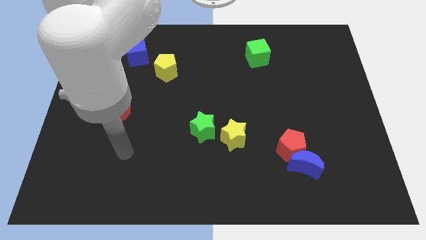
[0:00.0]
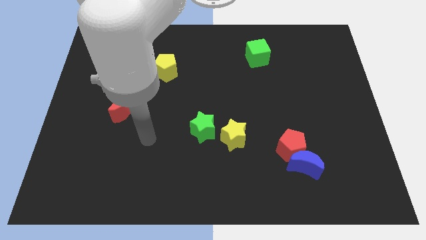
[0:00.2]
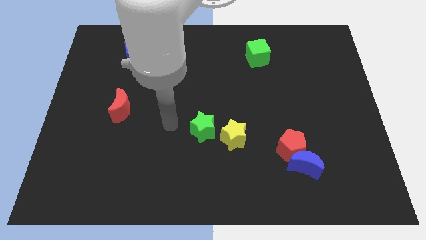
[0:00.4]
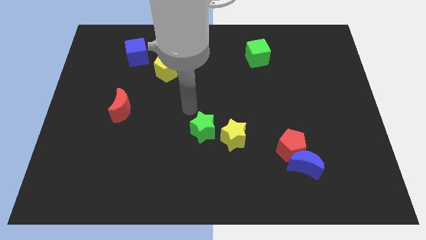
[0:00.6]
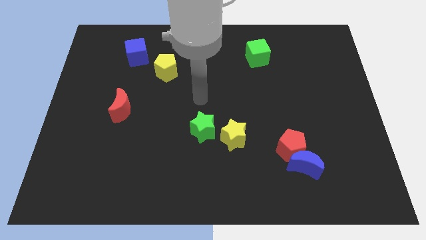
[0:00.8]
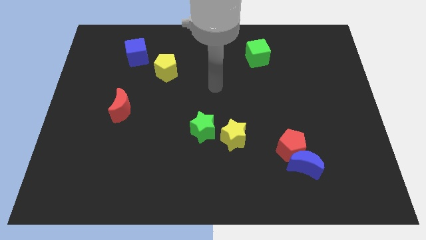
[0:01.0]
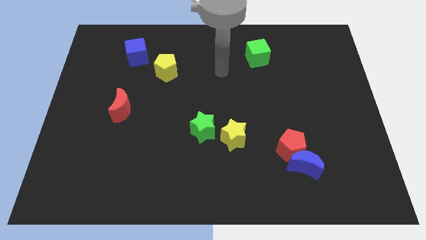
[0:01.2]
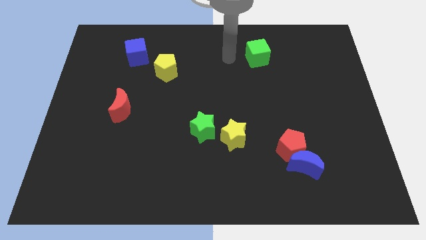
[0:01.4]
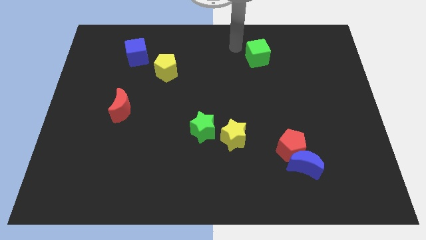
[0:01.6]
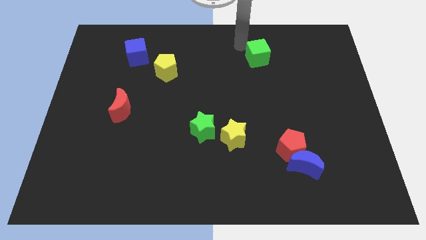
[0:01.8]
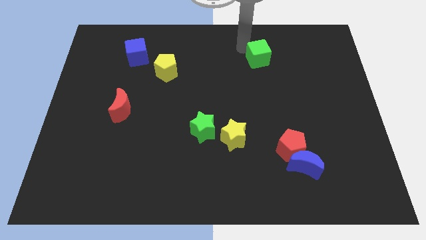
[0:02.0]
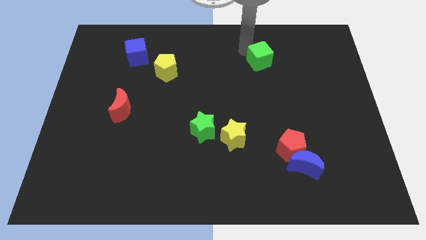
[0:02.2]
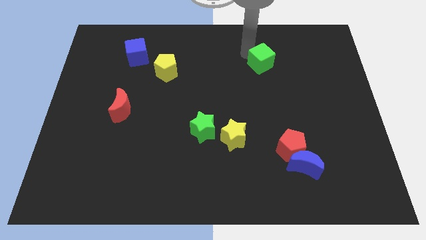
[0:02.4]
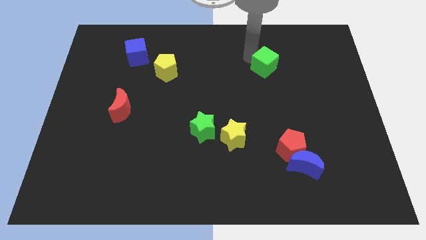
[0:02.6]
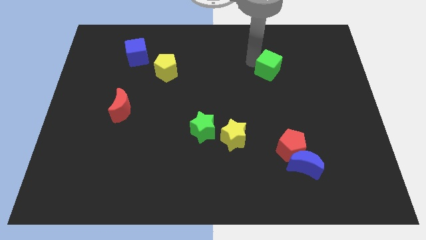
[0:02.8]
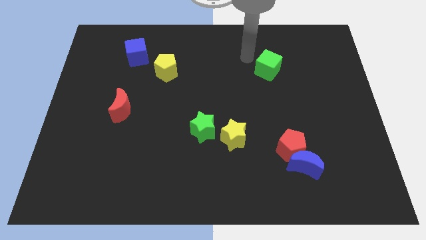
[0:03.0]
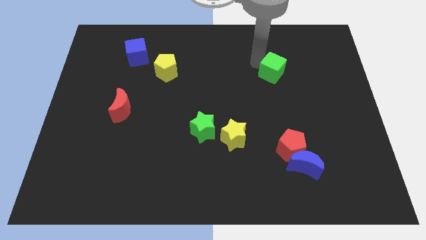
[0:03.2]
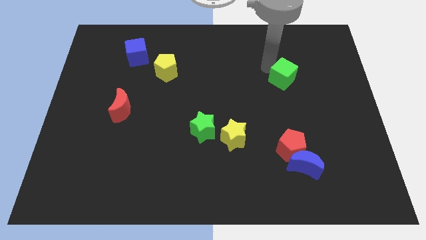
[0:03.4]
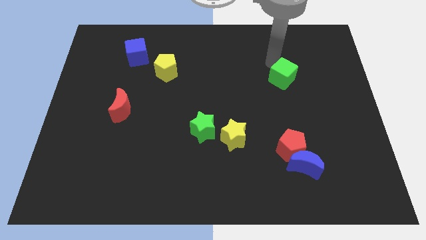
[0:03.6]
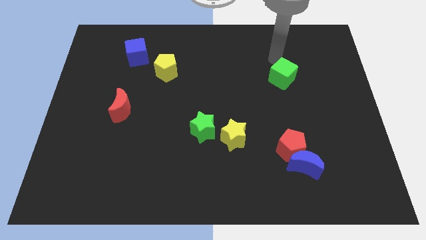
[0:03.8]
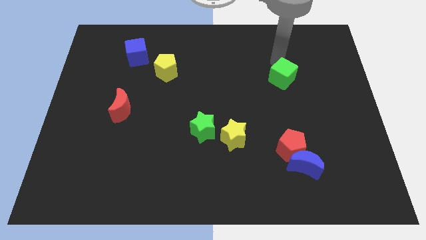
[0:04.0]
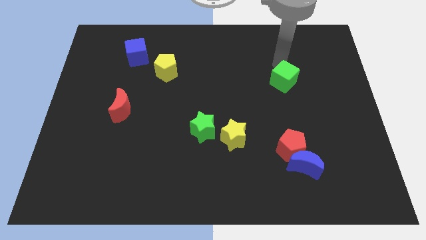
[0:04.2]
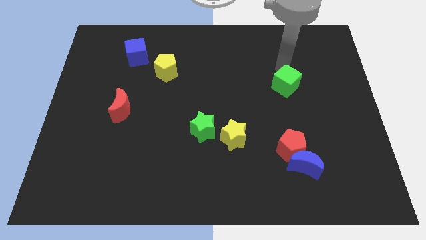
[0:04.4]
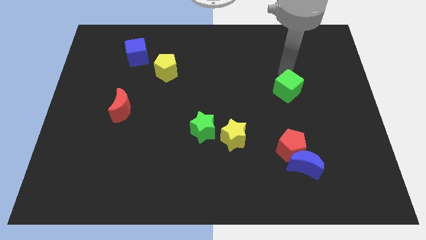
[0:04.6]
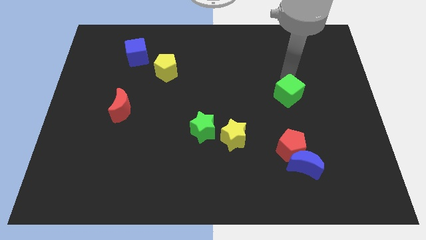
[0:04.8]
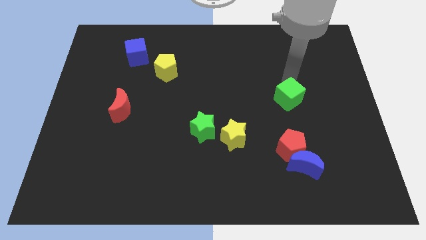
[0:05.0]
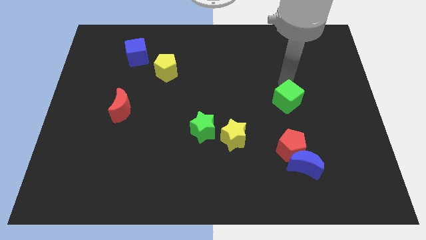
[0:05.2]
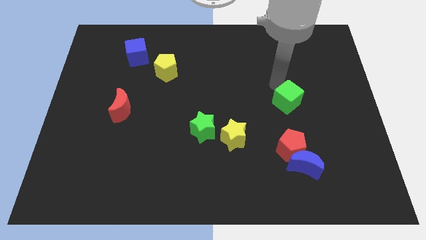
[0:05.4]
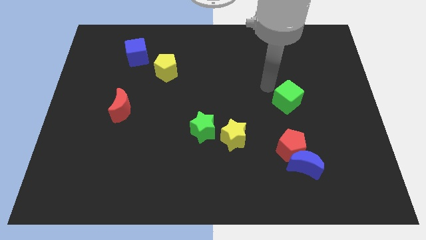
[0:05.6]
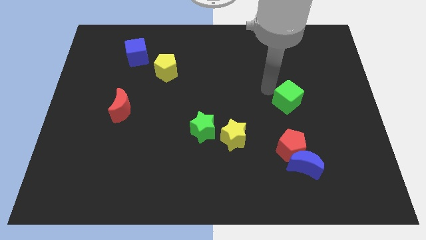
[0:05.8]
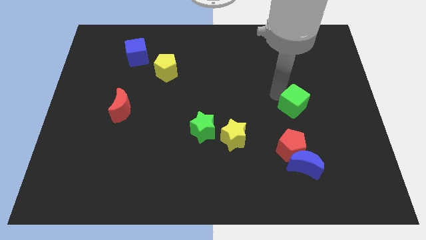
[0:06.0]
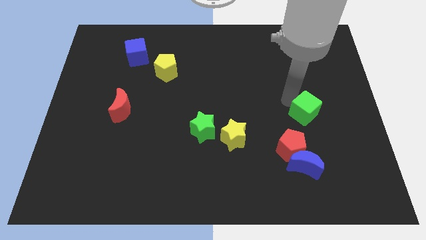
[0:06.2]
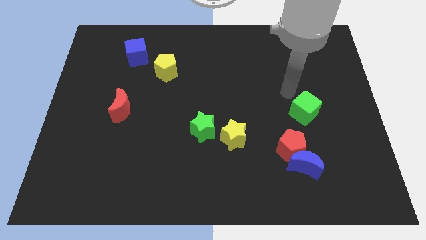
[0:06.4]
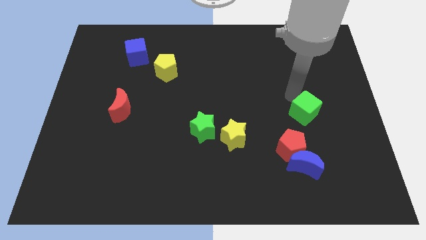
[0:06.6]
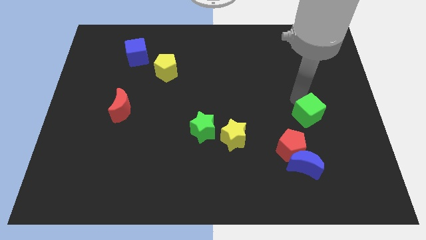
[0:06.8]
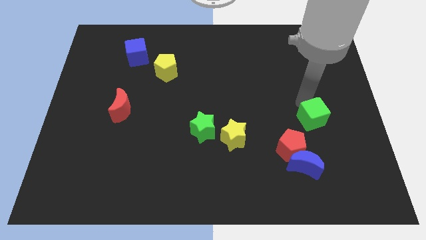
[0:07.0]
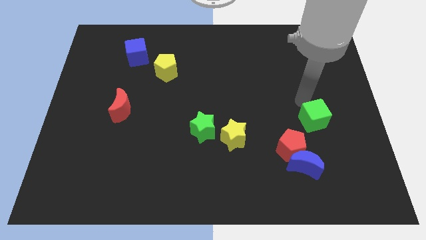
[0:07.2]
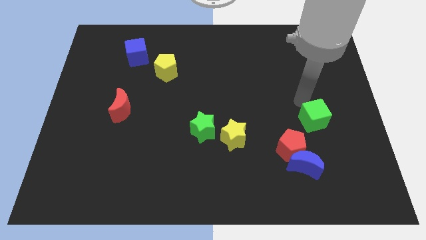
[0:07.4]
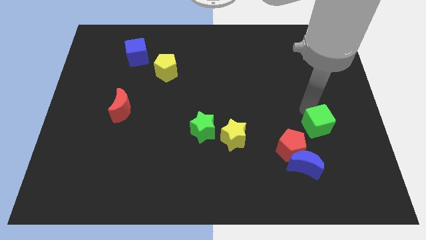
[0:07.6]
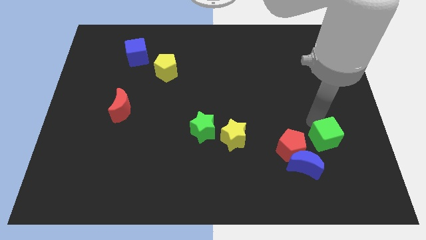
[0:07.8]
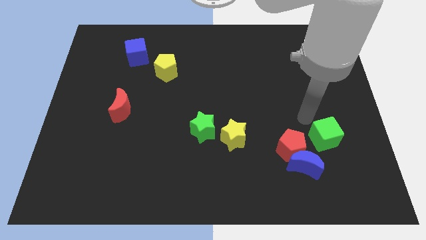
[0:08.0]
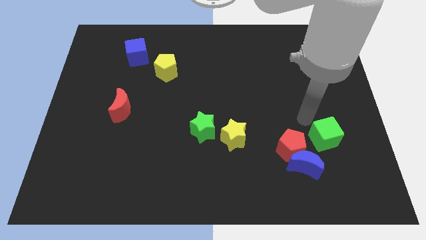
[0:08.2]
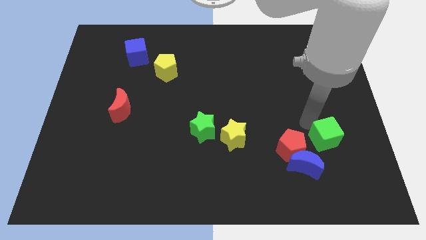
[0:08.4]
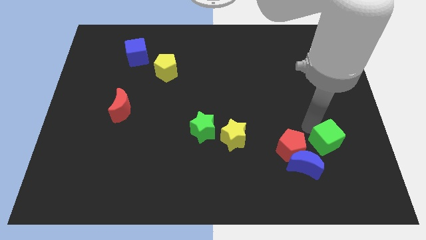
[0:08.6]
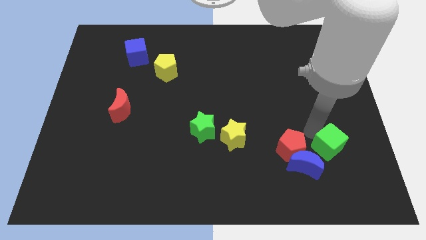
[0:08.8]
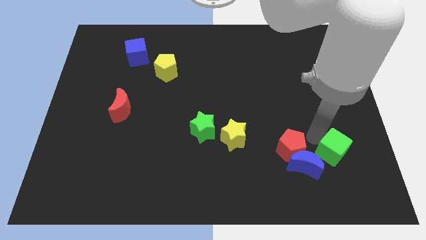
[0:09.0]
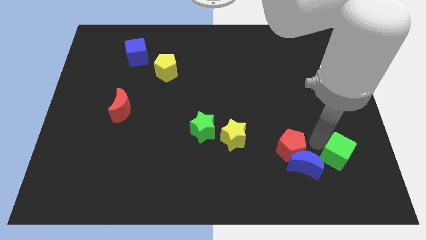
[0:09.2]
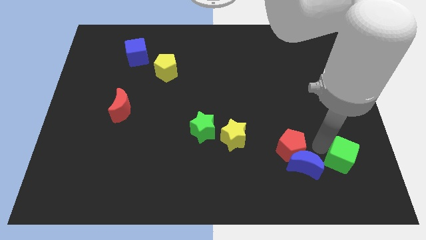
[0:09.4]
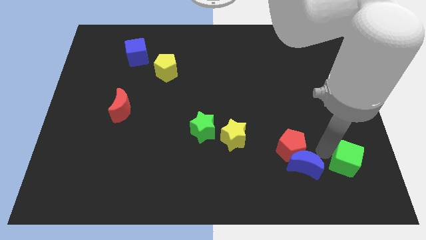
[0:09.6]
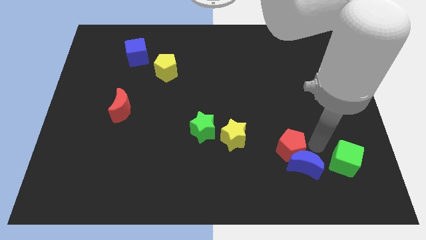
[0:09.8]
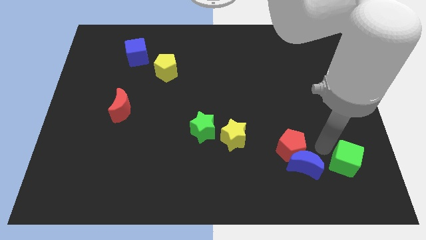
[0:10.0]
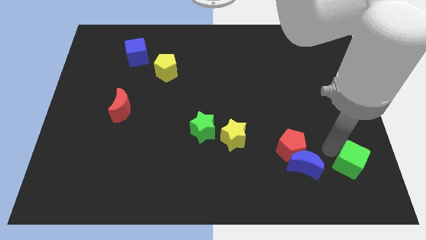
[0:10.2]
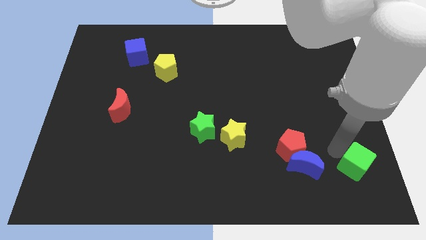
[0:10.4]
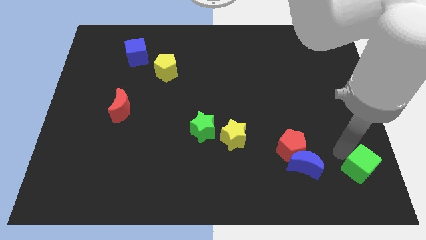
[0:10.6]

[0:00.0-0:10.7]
move the green cube to the bottom right corner

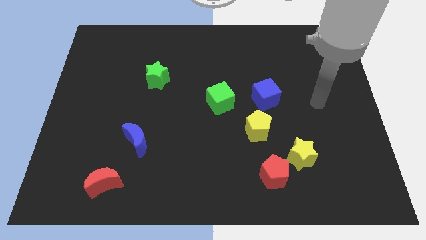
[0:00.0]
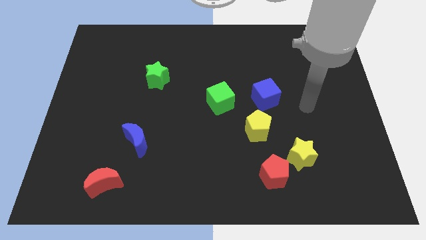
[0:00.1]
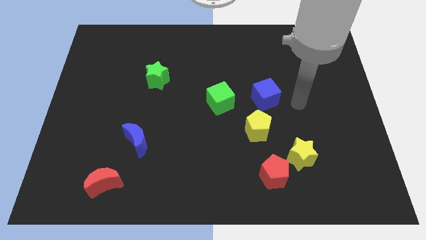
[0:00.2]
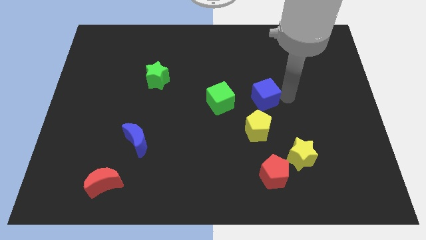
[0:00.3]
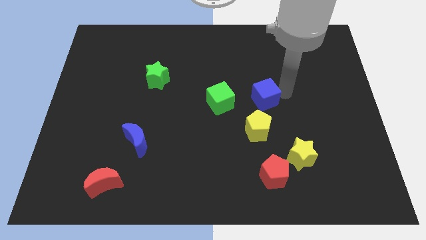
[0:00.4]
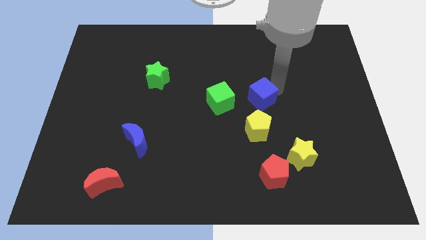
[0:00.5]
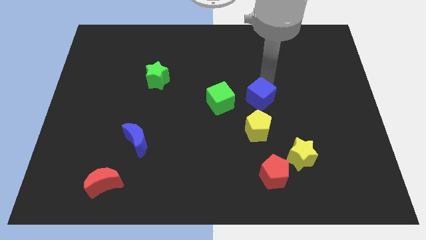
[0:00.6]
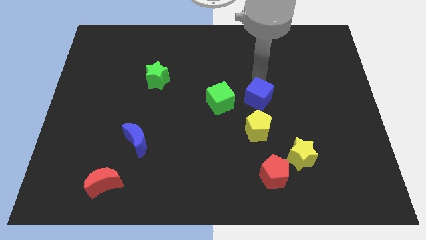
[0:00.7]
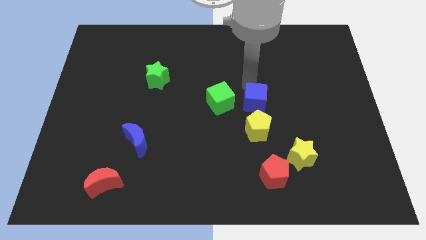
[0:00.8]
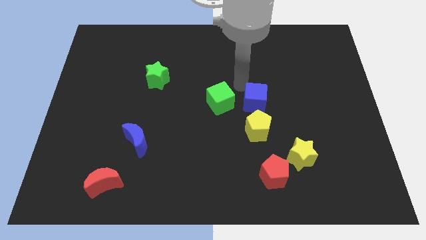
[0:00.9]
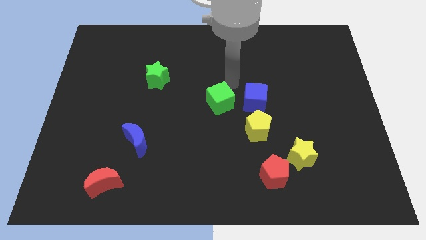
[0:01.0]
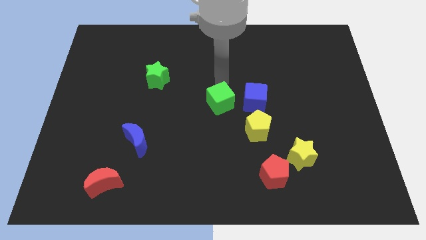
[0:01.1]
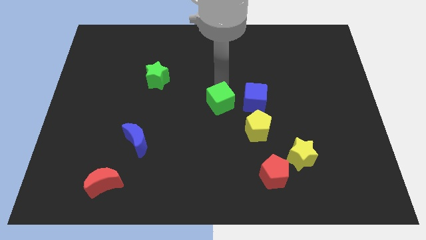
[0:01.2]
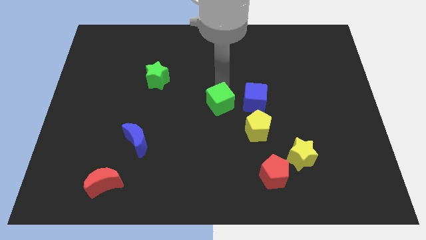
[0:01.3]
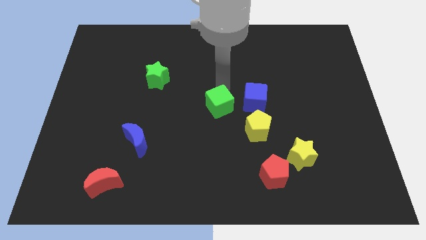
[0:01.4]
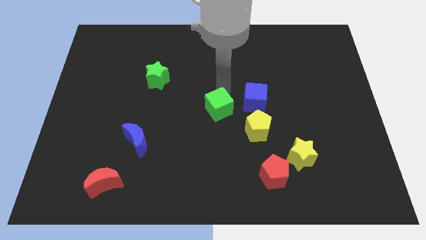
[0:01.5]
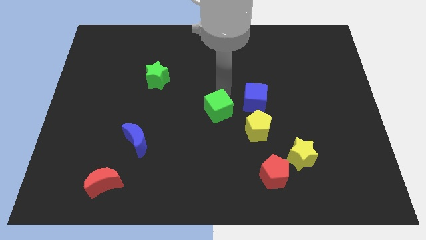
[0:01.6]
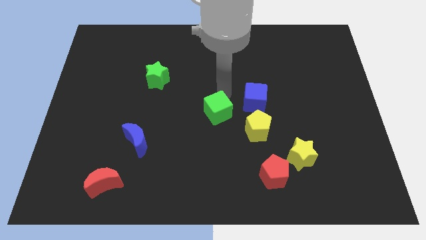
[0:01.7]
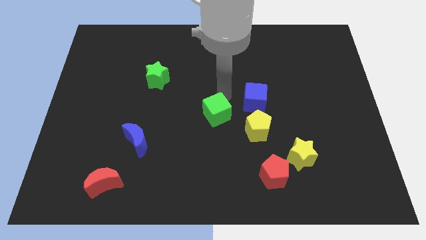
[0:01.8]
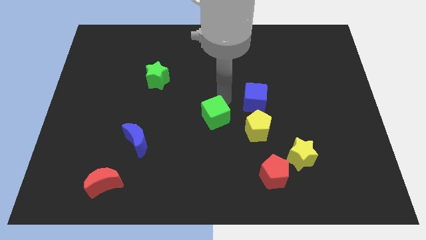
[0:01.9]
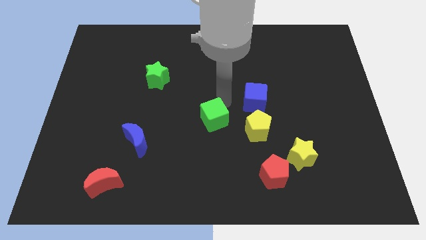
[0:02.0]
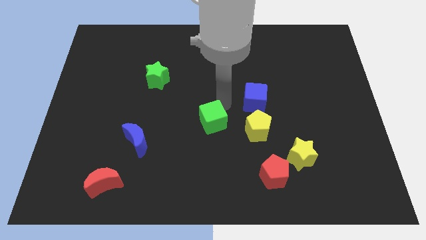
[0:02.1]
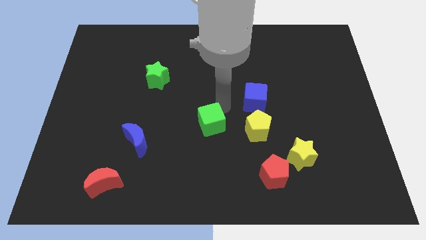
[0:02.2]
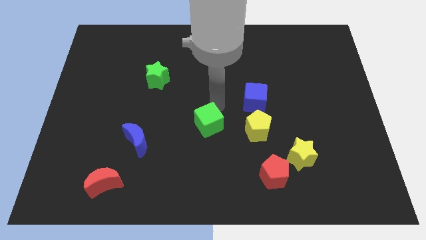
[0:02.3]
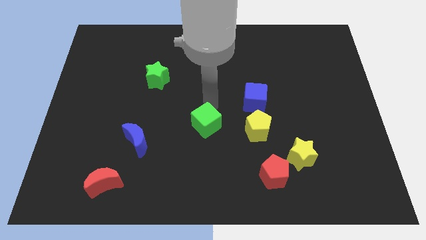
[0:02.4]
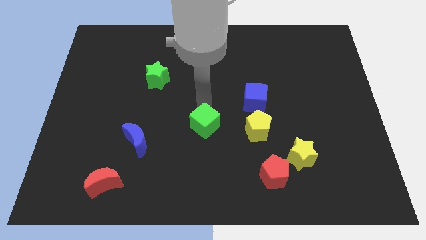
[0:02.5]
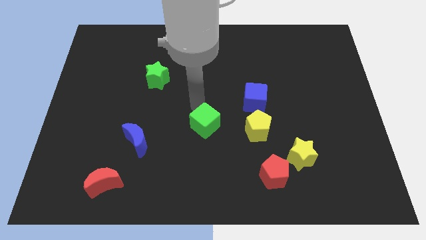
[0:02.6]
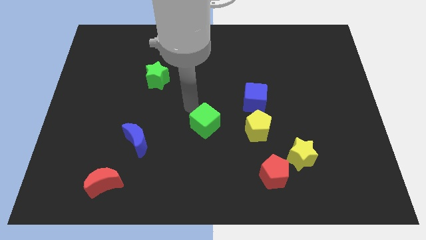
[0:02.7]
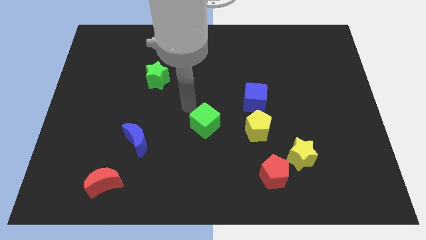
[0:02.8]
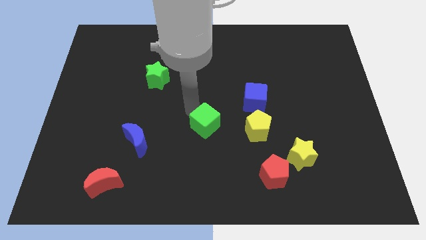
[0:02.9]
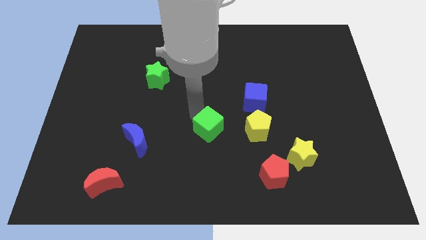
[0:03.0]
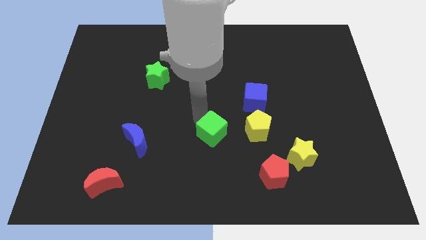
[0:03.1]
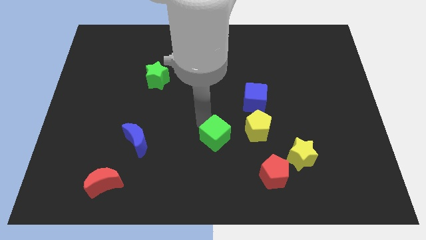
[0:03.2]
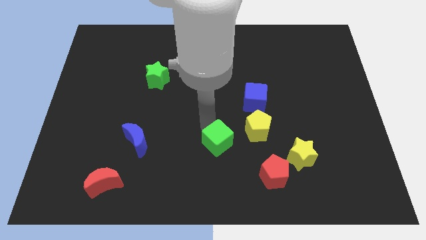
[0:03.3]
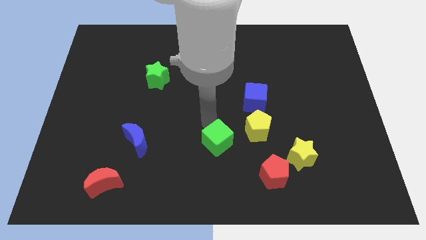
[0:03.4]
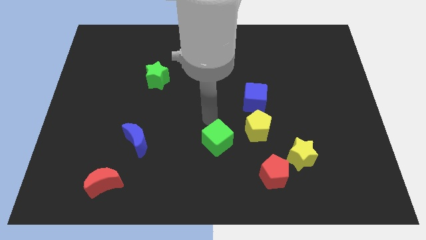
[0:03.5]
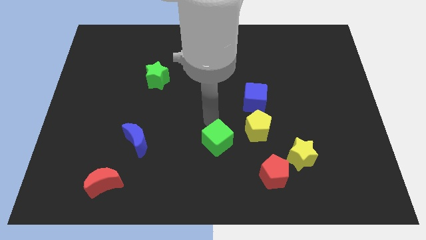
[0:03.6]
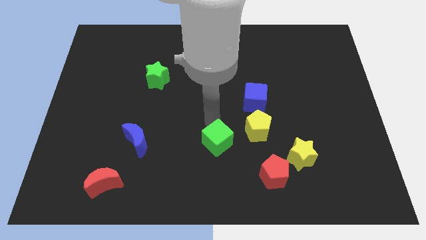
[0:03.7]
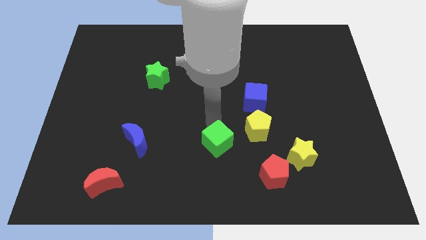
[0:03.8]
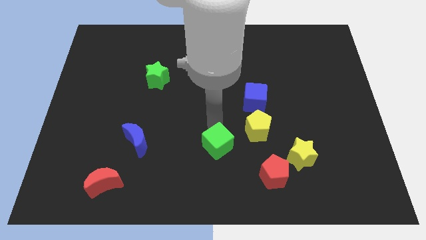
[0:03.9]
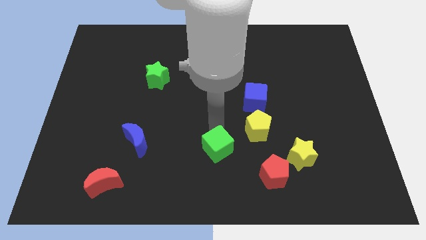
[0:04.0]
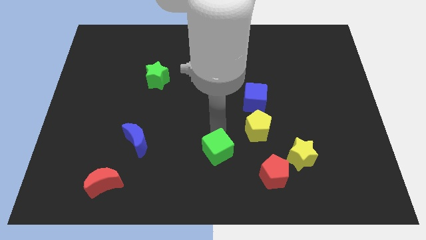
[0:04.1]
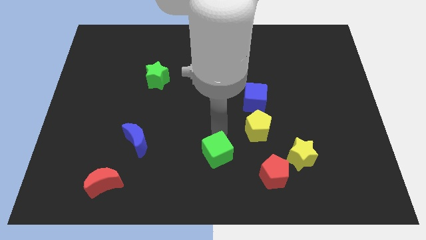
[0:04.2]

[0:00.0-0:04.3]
move the green cube to the bottom side
